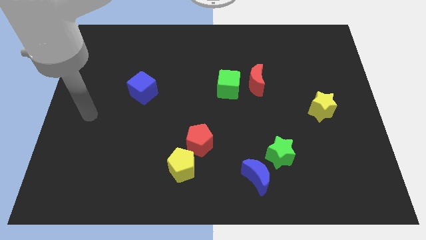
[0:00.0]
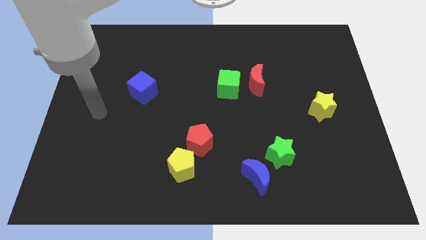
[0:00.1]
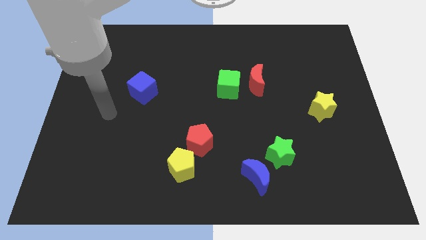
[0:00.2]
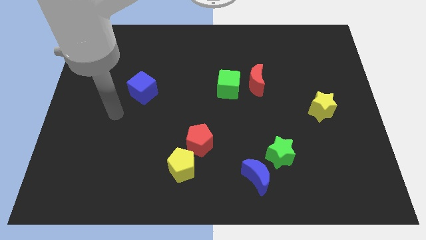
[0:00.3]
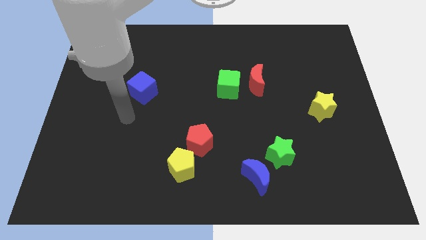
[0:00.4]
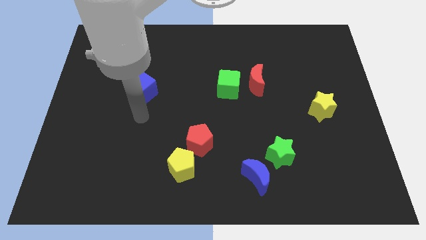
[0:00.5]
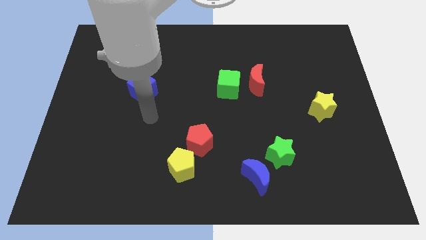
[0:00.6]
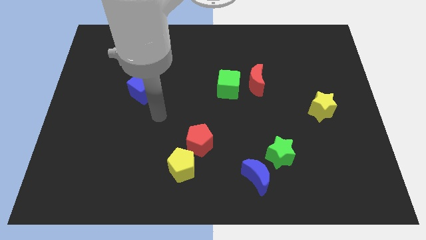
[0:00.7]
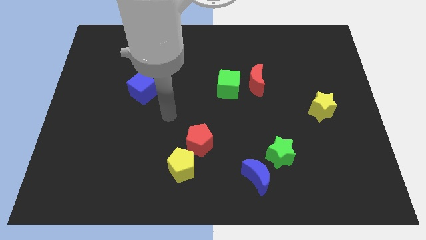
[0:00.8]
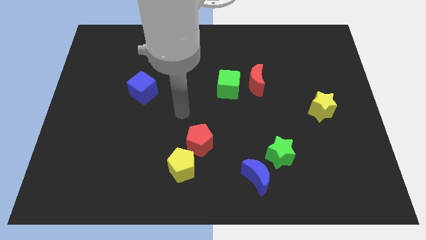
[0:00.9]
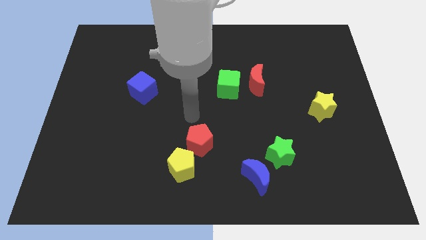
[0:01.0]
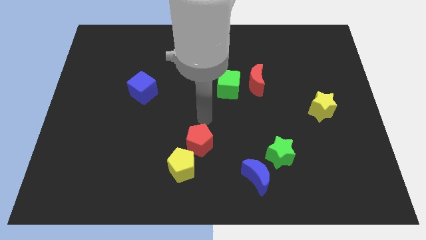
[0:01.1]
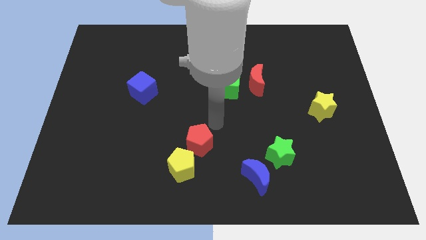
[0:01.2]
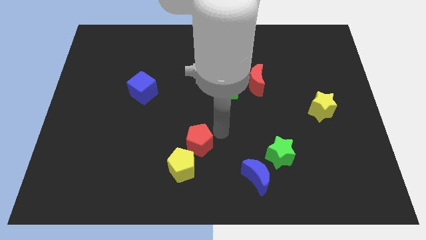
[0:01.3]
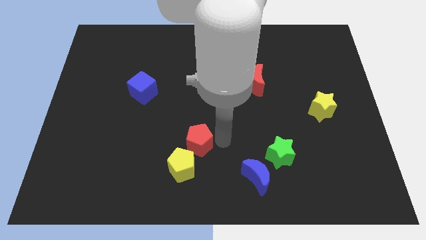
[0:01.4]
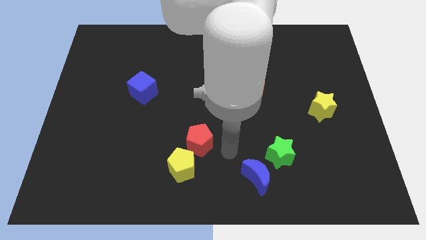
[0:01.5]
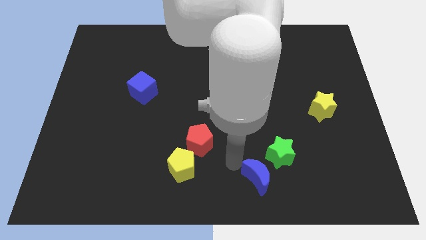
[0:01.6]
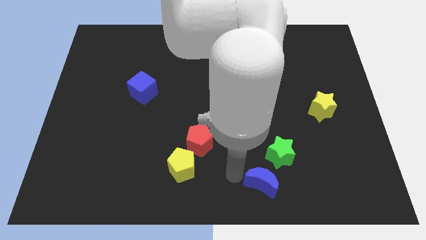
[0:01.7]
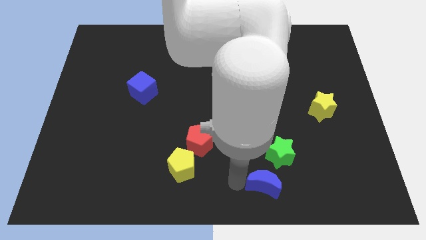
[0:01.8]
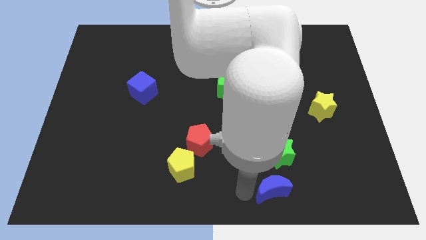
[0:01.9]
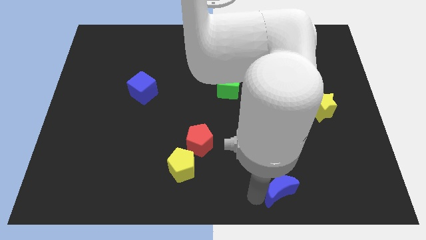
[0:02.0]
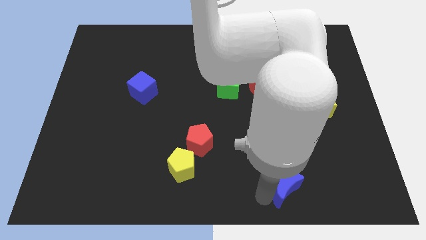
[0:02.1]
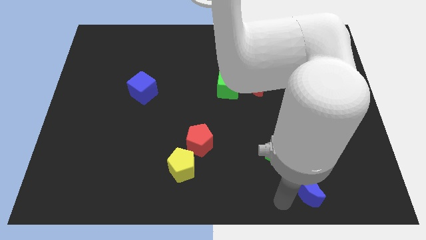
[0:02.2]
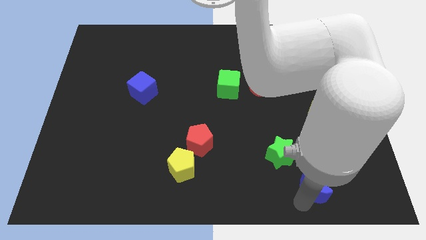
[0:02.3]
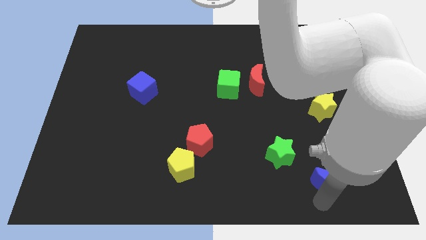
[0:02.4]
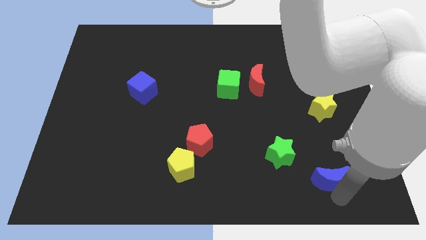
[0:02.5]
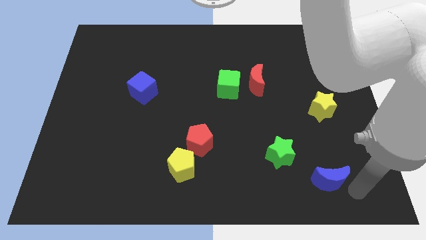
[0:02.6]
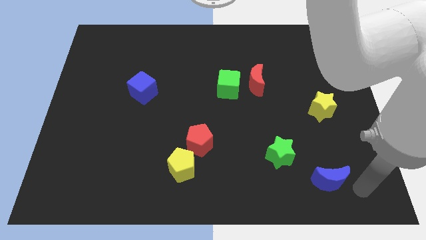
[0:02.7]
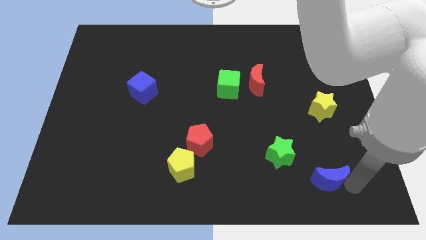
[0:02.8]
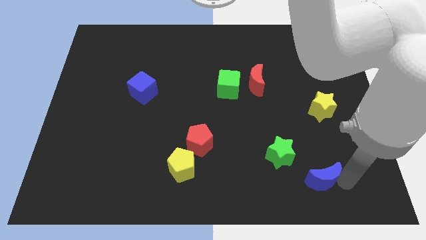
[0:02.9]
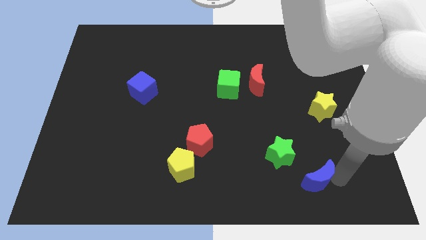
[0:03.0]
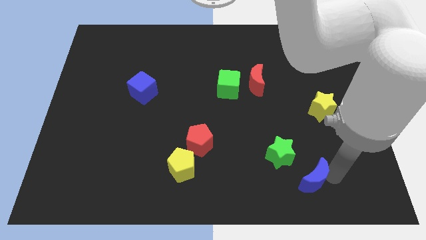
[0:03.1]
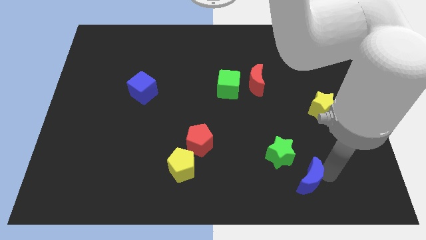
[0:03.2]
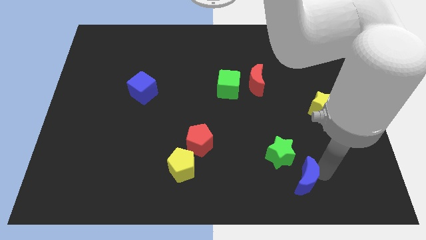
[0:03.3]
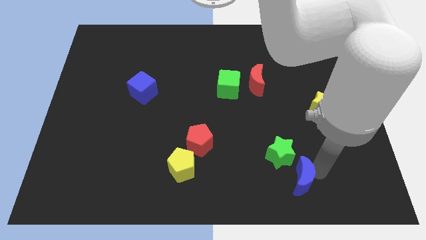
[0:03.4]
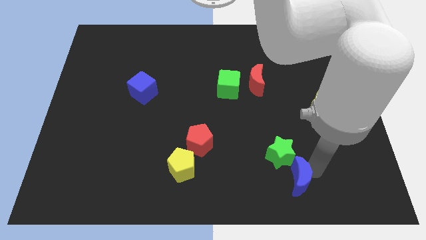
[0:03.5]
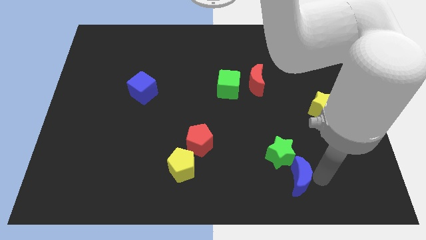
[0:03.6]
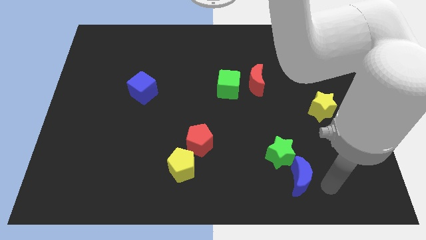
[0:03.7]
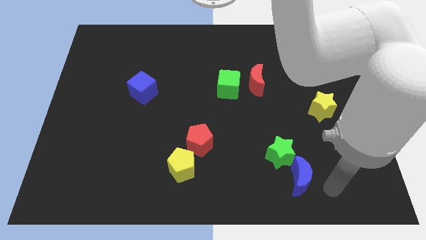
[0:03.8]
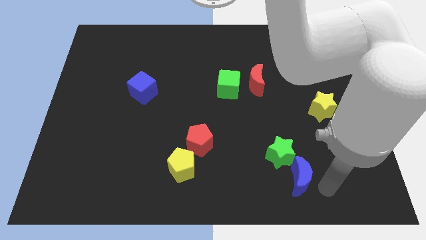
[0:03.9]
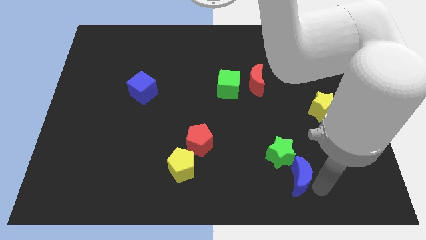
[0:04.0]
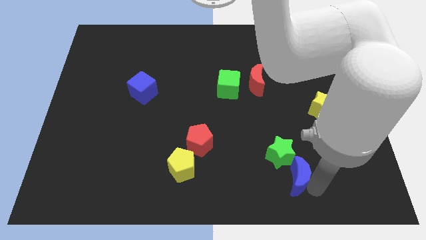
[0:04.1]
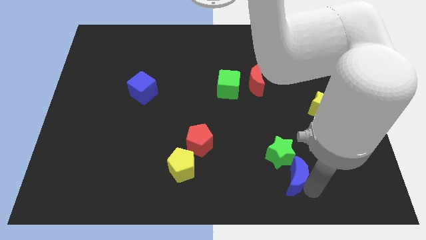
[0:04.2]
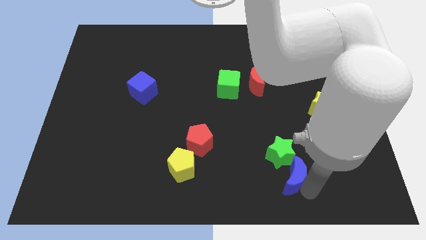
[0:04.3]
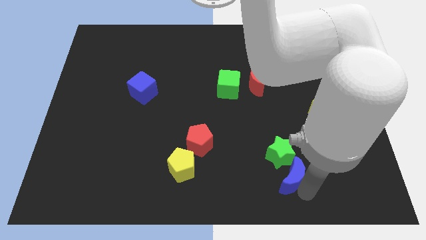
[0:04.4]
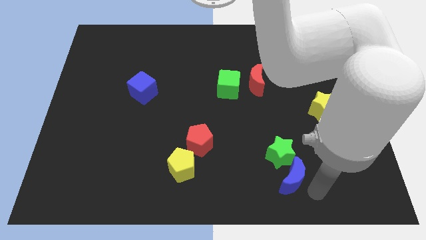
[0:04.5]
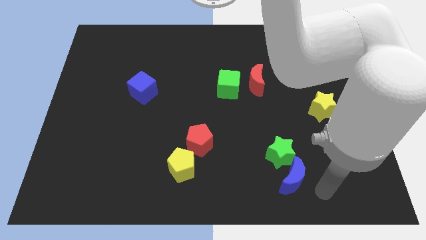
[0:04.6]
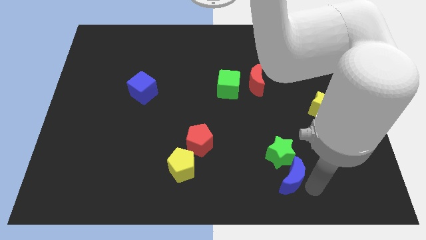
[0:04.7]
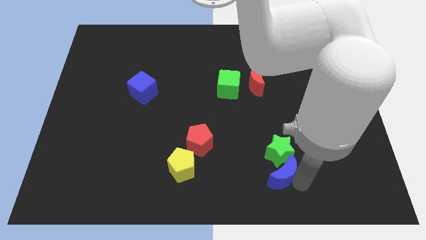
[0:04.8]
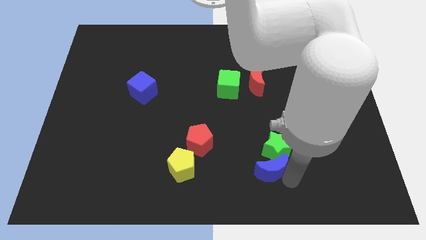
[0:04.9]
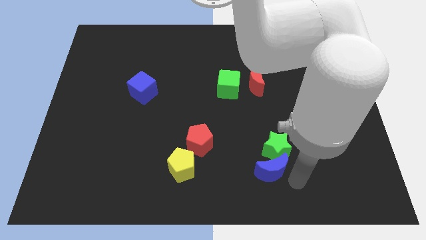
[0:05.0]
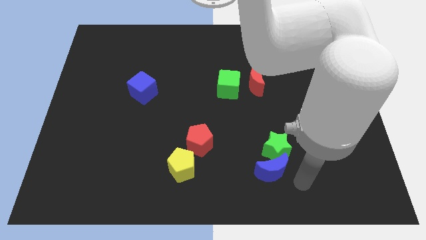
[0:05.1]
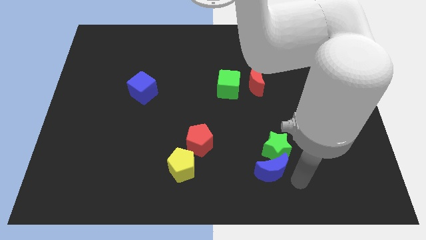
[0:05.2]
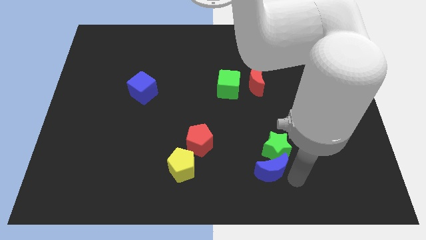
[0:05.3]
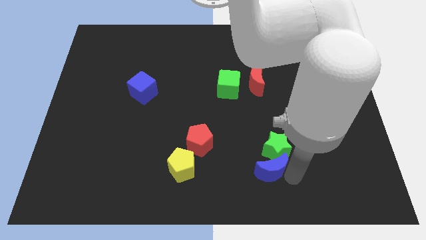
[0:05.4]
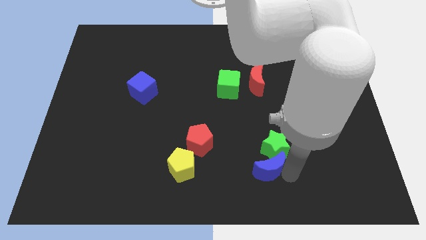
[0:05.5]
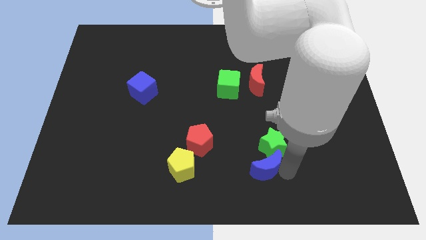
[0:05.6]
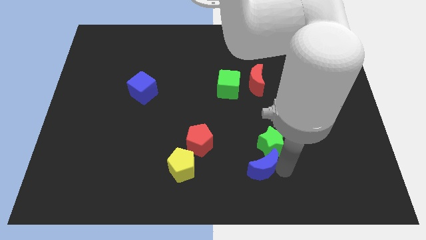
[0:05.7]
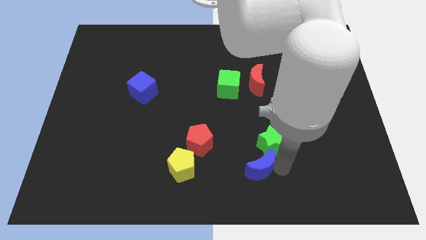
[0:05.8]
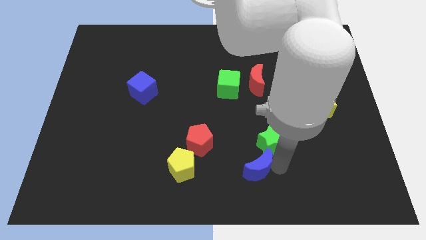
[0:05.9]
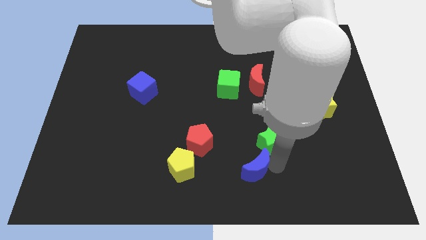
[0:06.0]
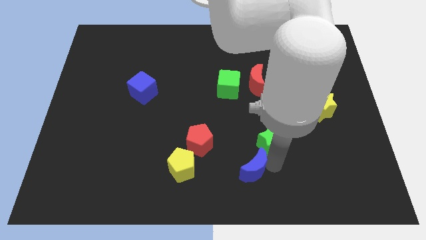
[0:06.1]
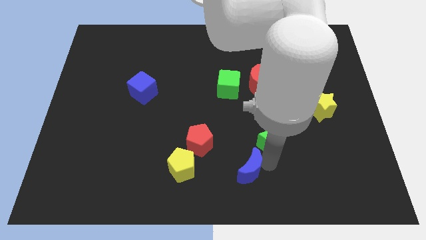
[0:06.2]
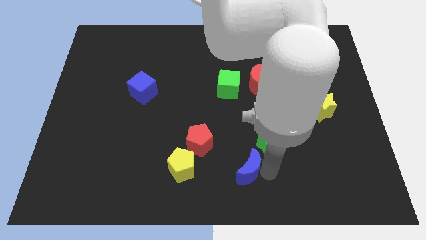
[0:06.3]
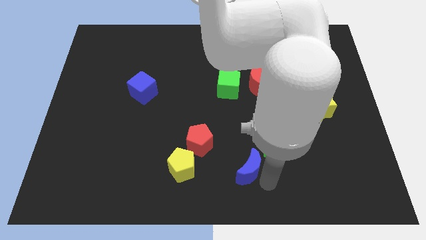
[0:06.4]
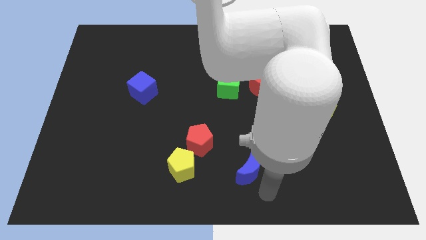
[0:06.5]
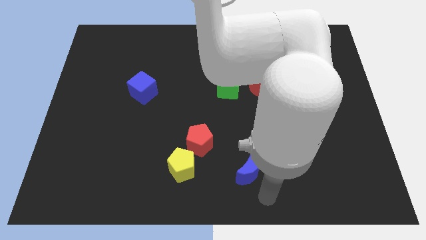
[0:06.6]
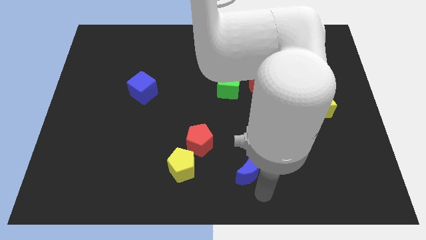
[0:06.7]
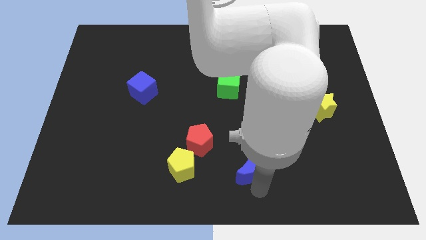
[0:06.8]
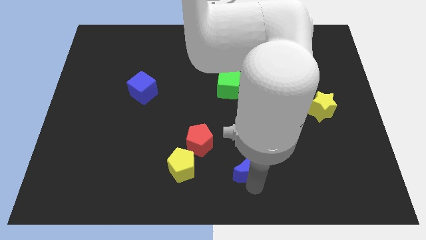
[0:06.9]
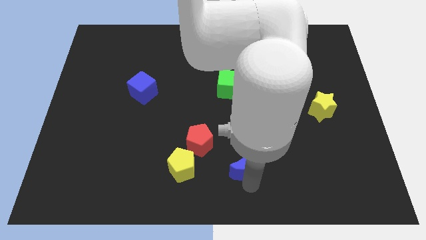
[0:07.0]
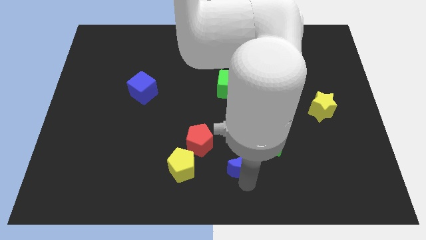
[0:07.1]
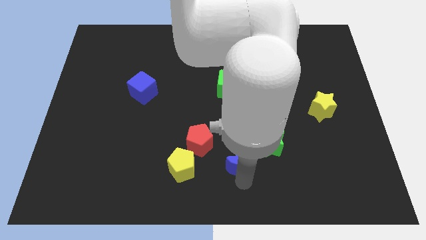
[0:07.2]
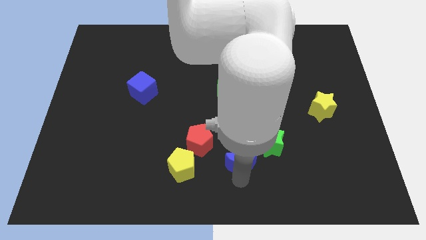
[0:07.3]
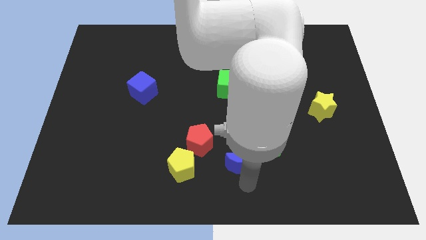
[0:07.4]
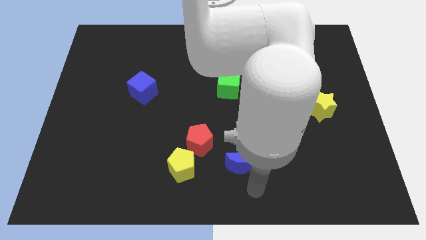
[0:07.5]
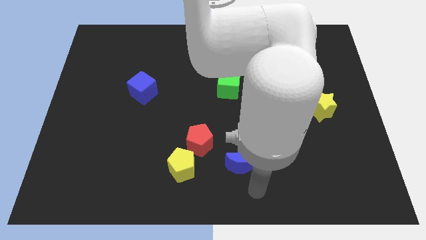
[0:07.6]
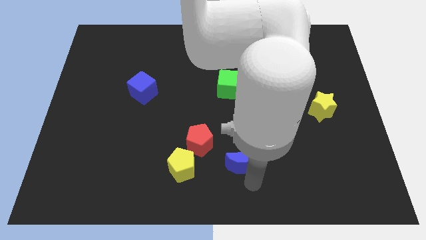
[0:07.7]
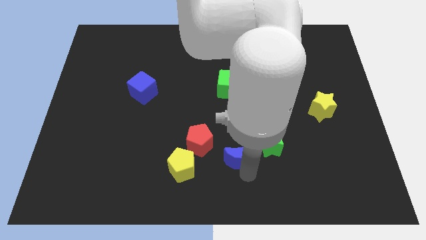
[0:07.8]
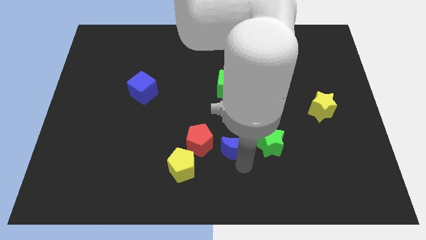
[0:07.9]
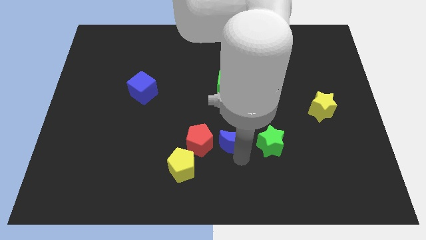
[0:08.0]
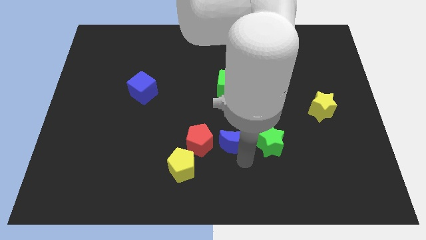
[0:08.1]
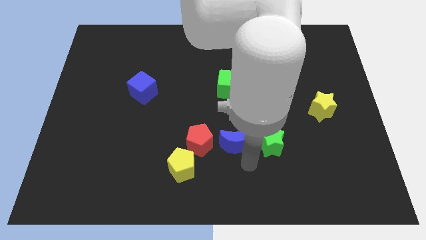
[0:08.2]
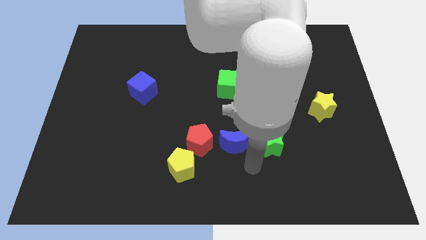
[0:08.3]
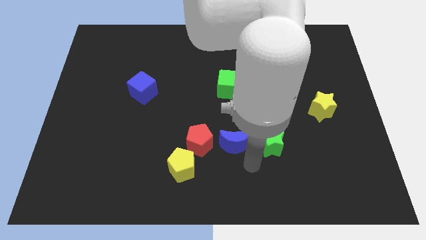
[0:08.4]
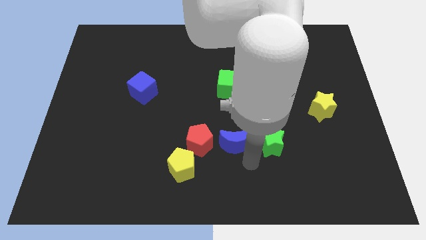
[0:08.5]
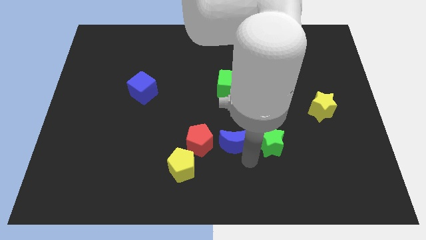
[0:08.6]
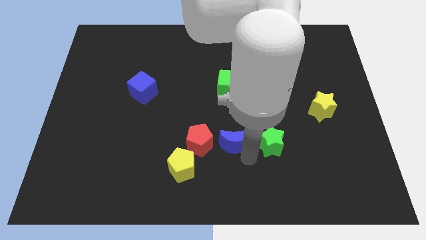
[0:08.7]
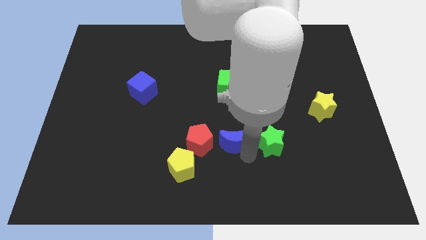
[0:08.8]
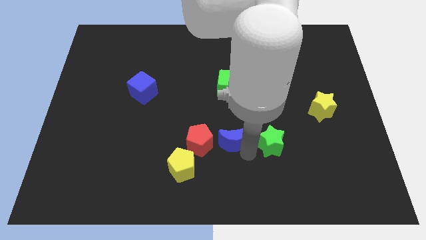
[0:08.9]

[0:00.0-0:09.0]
put the blue moon to the middle of the board
